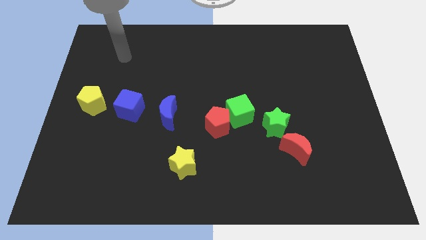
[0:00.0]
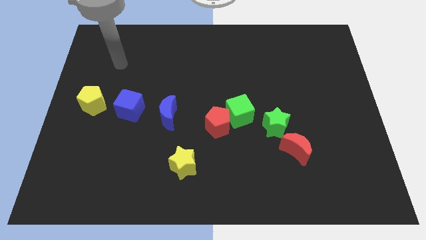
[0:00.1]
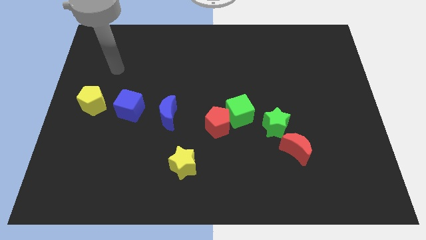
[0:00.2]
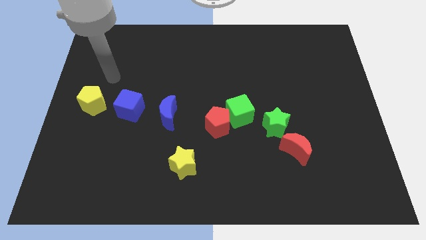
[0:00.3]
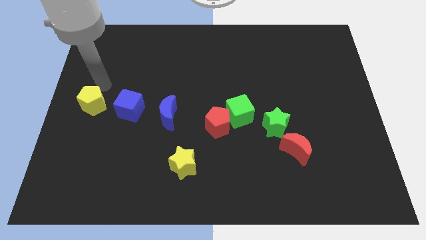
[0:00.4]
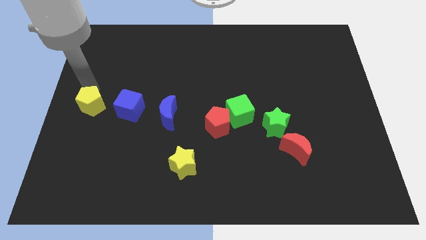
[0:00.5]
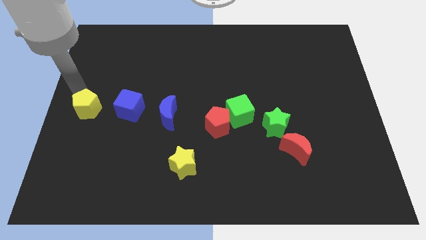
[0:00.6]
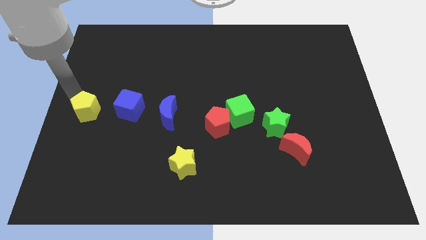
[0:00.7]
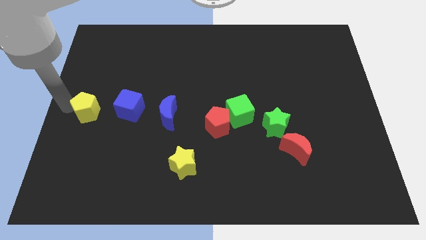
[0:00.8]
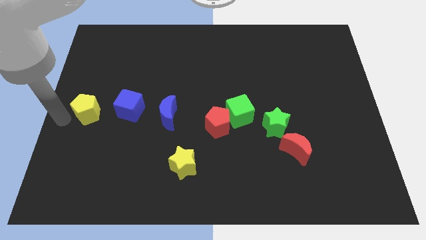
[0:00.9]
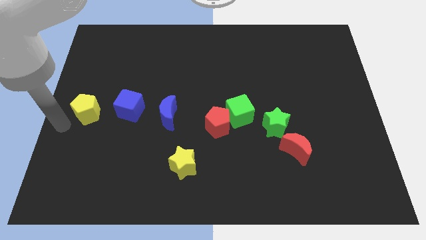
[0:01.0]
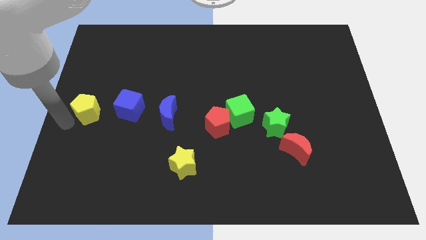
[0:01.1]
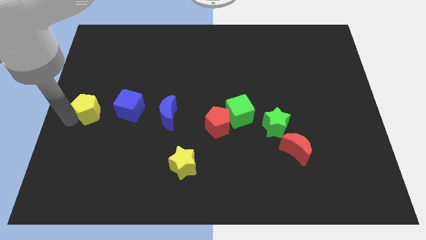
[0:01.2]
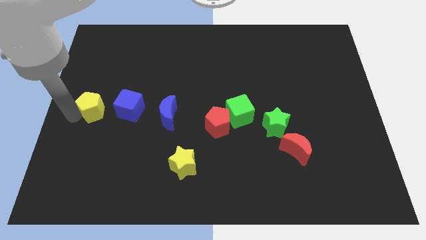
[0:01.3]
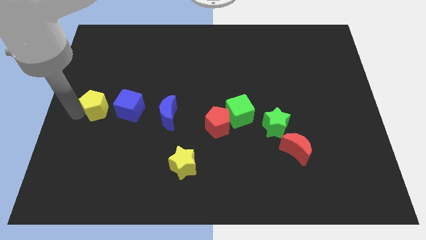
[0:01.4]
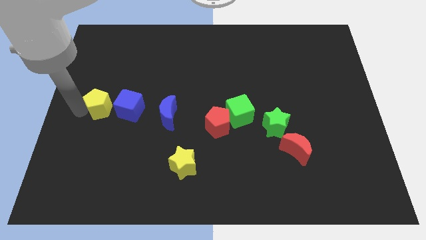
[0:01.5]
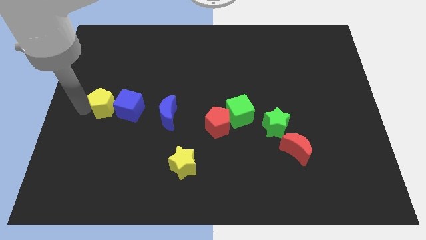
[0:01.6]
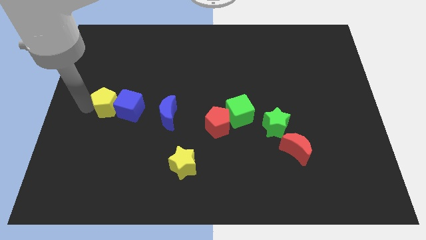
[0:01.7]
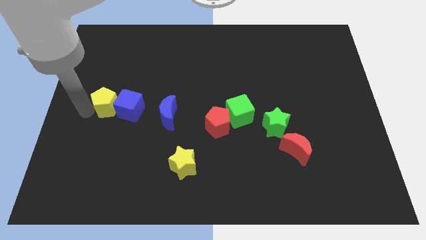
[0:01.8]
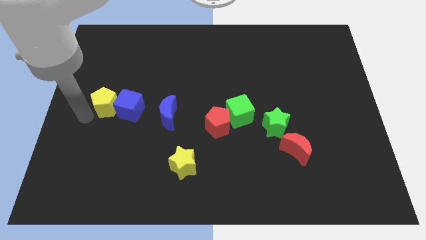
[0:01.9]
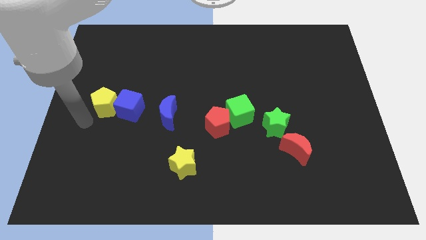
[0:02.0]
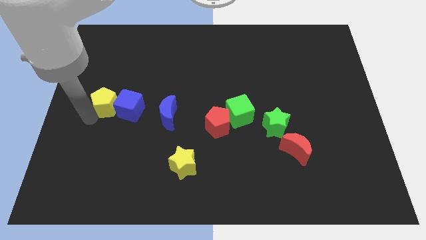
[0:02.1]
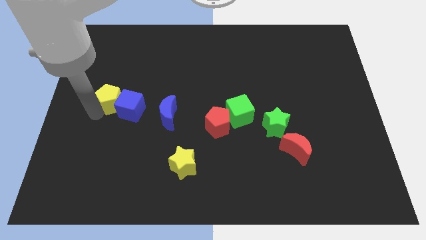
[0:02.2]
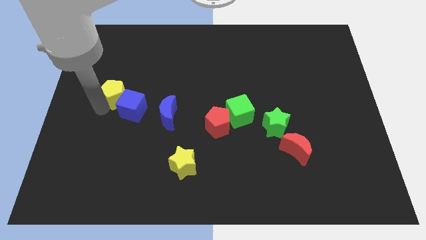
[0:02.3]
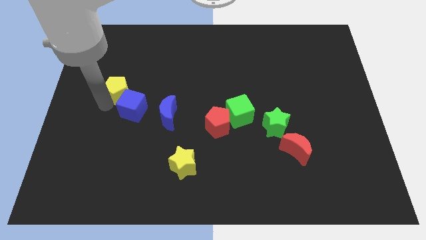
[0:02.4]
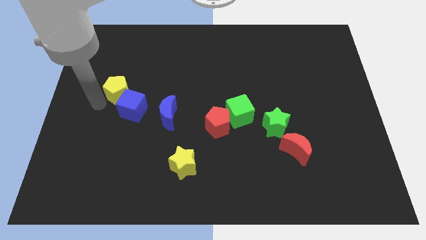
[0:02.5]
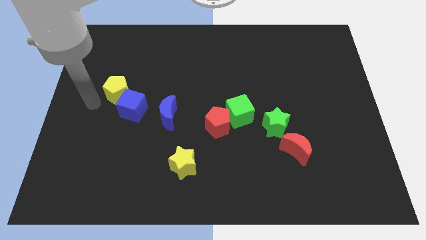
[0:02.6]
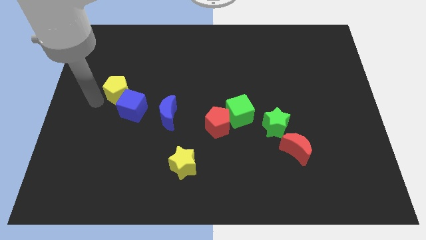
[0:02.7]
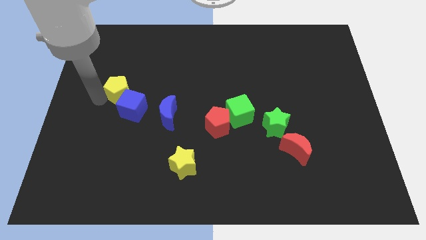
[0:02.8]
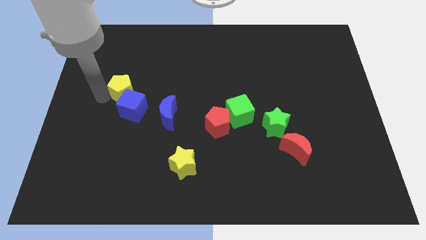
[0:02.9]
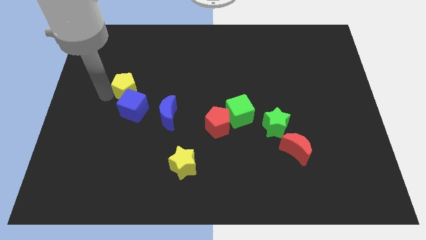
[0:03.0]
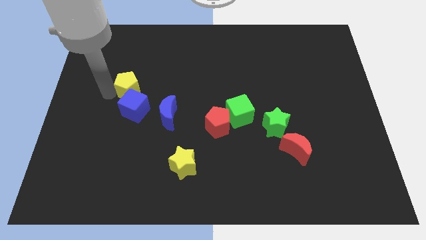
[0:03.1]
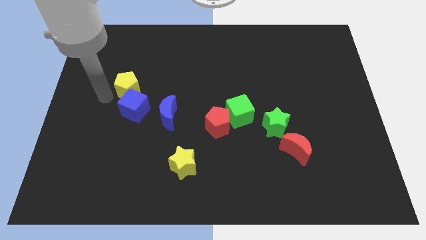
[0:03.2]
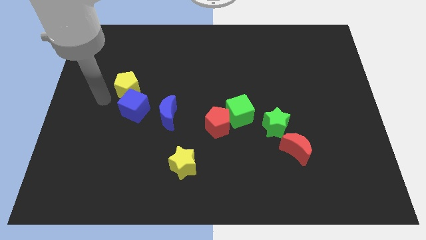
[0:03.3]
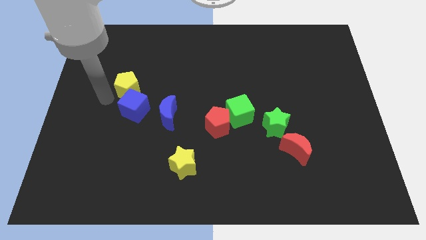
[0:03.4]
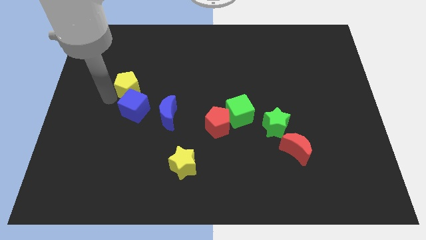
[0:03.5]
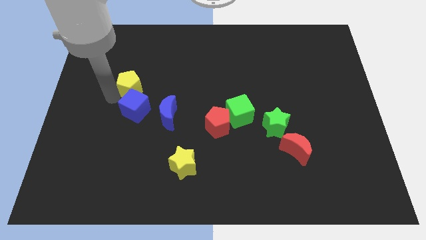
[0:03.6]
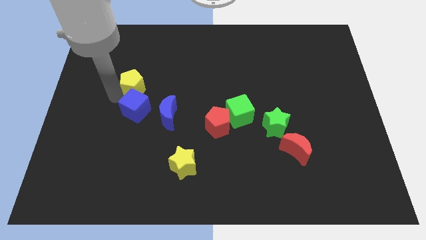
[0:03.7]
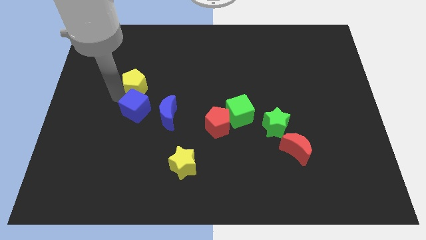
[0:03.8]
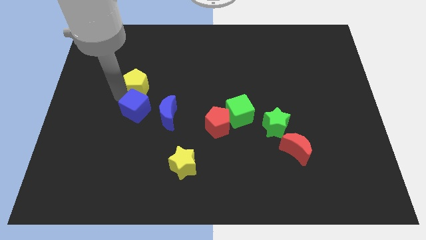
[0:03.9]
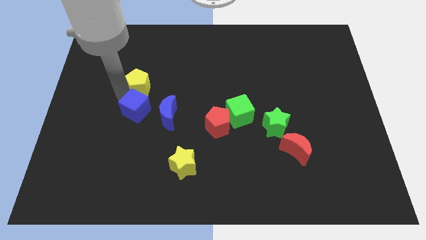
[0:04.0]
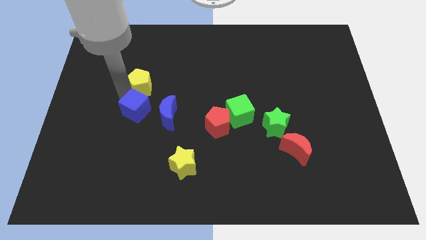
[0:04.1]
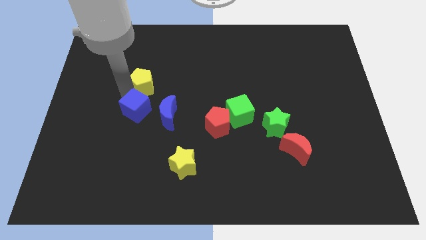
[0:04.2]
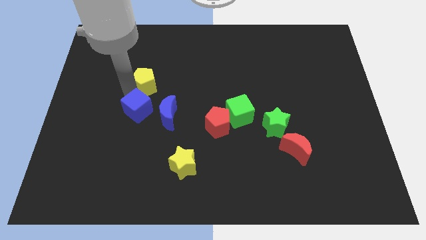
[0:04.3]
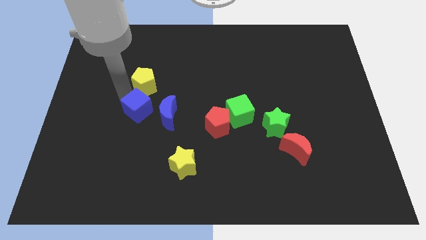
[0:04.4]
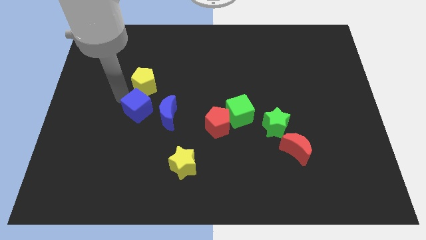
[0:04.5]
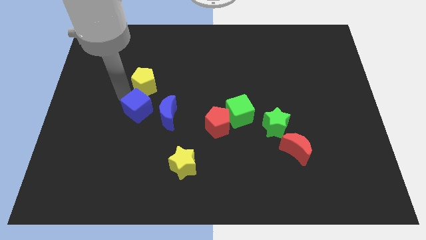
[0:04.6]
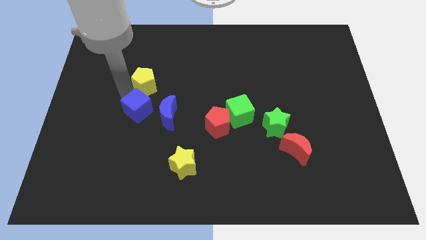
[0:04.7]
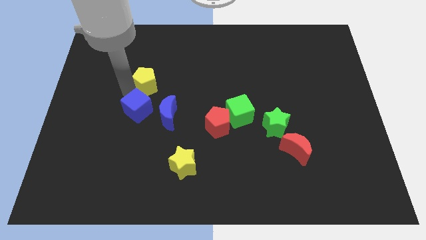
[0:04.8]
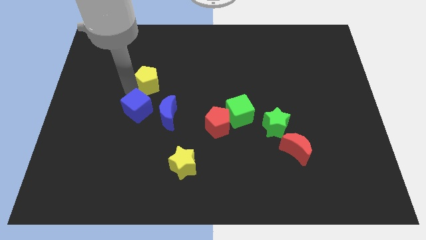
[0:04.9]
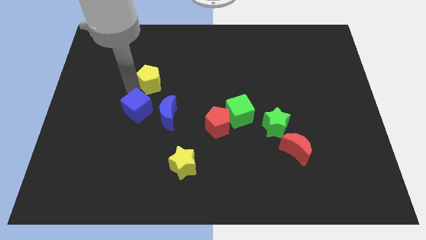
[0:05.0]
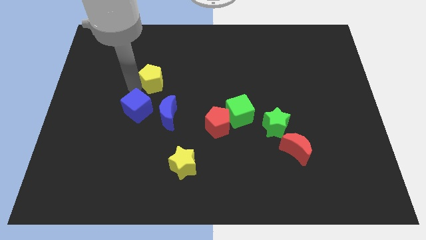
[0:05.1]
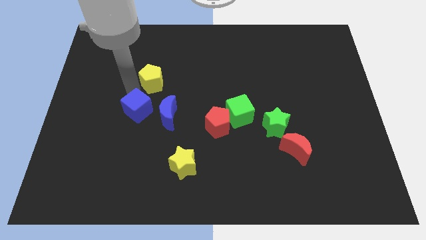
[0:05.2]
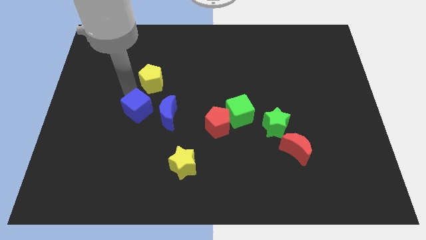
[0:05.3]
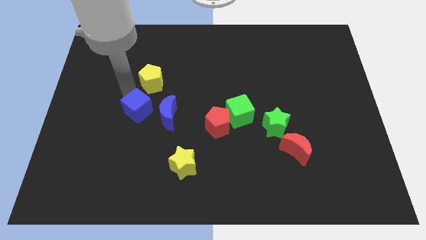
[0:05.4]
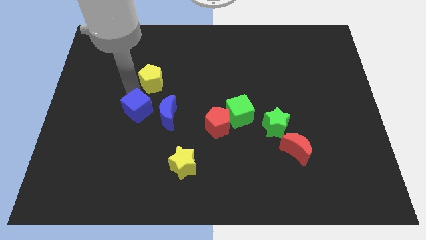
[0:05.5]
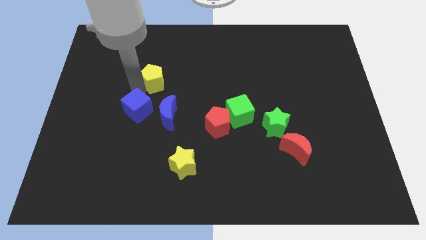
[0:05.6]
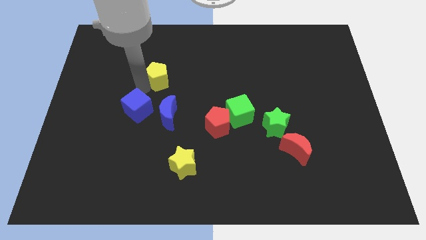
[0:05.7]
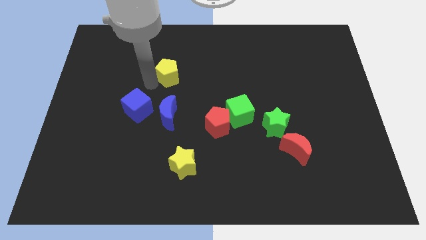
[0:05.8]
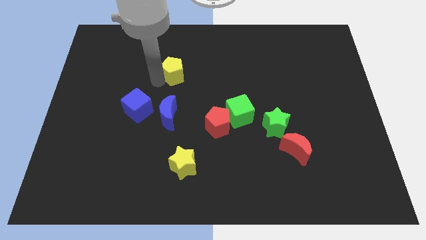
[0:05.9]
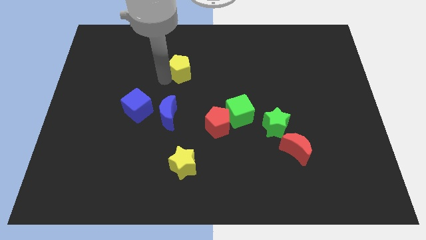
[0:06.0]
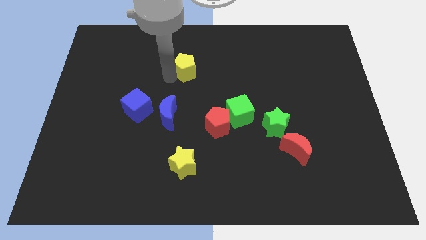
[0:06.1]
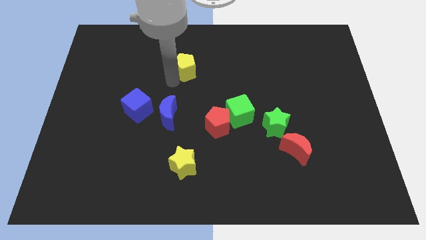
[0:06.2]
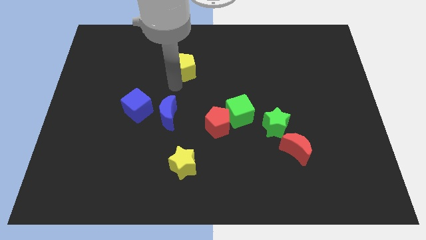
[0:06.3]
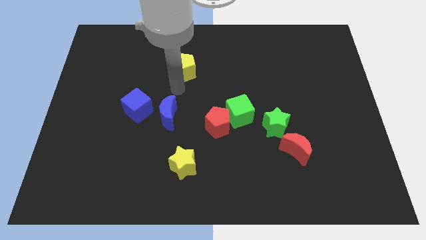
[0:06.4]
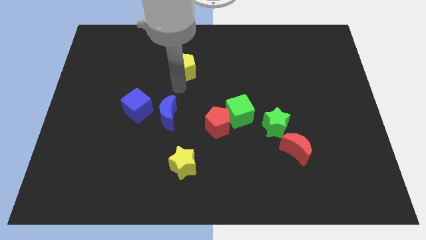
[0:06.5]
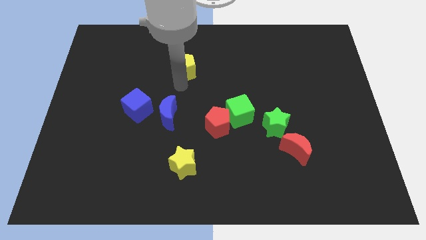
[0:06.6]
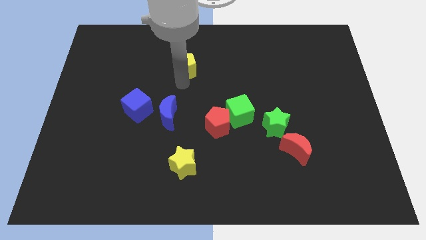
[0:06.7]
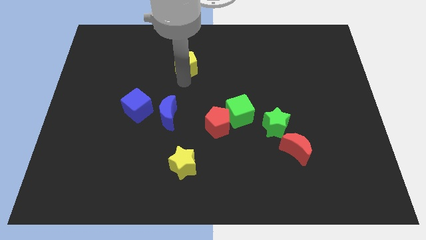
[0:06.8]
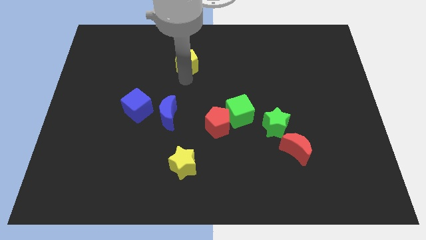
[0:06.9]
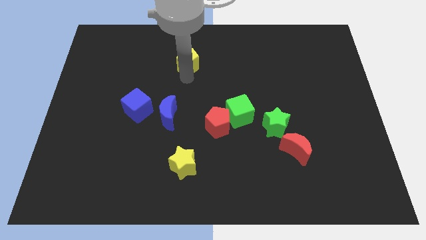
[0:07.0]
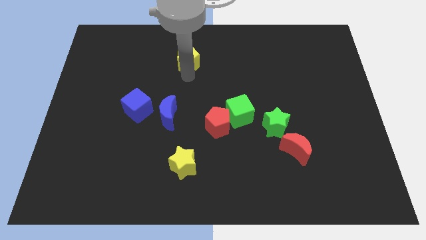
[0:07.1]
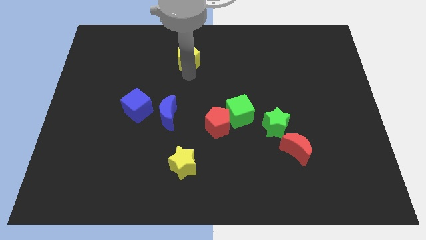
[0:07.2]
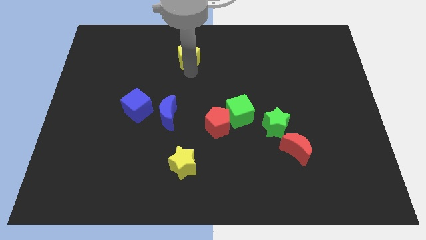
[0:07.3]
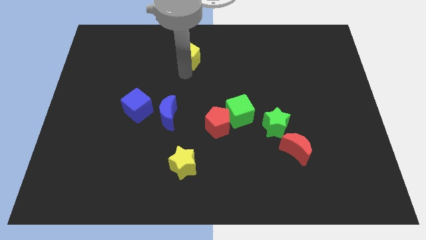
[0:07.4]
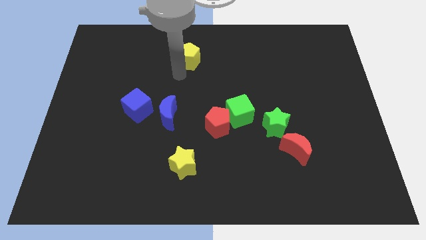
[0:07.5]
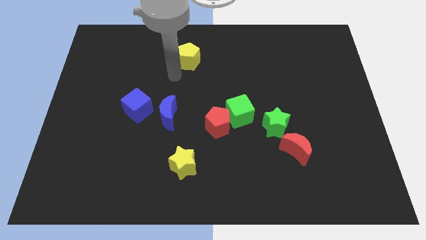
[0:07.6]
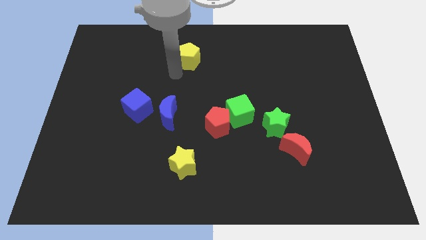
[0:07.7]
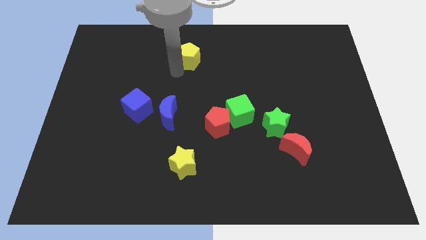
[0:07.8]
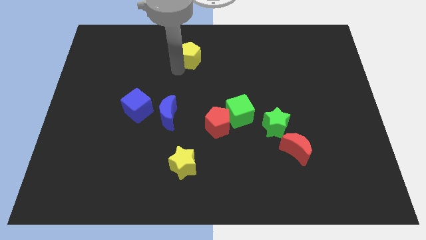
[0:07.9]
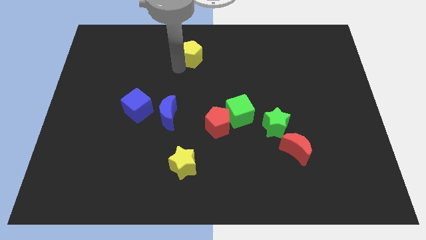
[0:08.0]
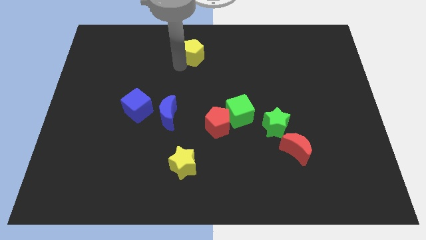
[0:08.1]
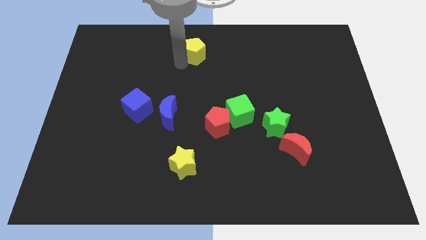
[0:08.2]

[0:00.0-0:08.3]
slide the yellow pentagon to the towards your base
